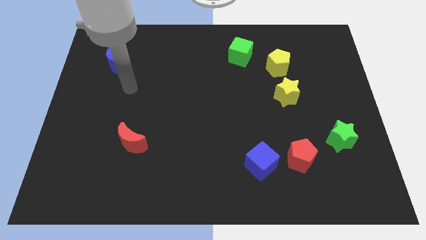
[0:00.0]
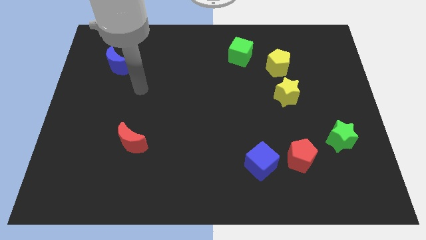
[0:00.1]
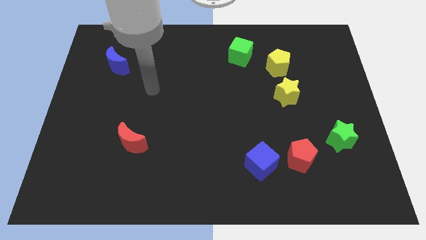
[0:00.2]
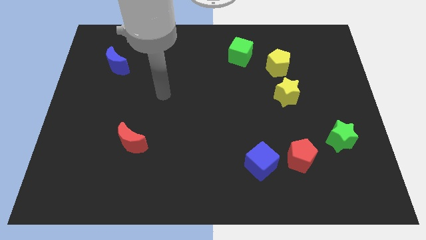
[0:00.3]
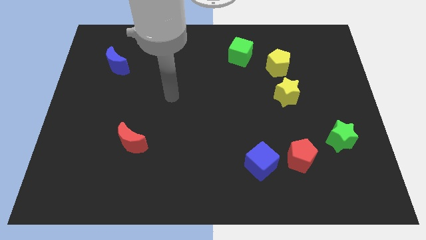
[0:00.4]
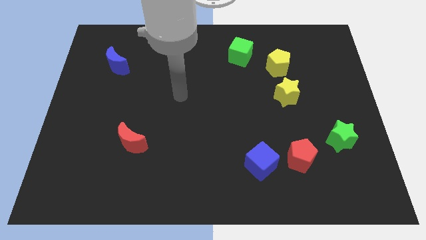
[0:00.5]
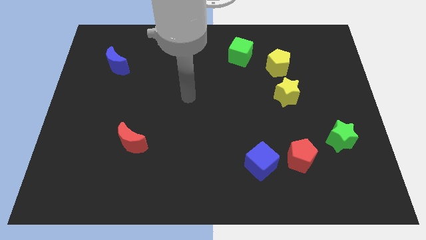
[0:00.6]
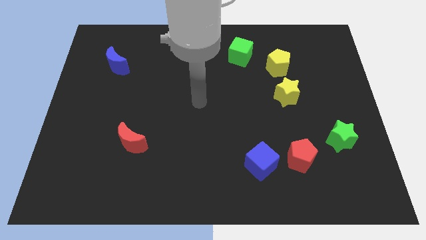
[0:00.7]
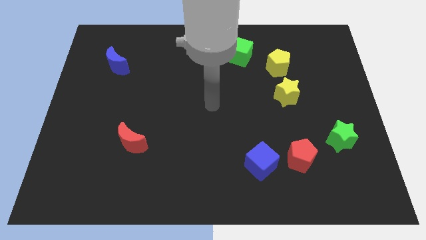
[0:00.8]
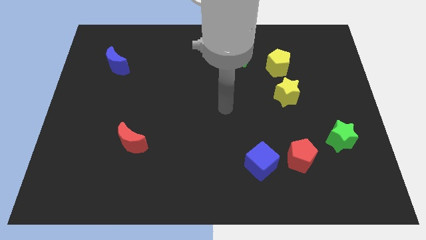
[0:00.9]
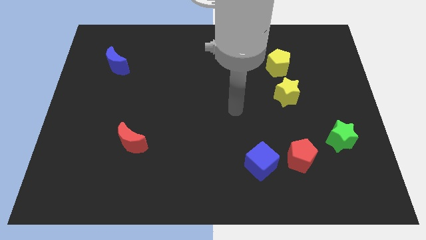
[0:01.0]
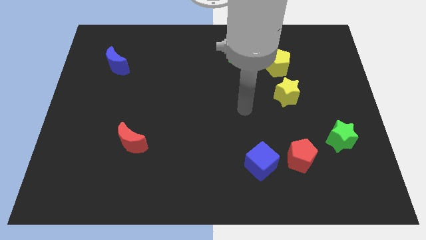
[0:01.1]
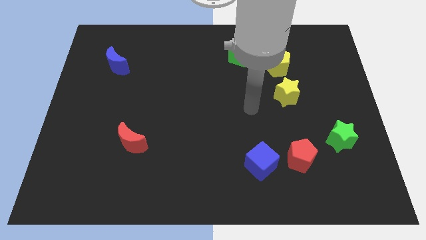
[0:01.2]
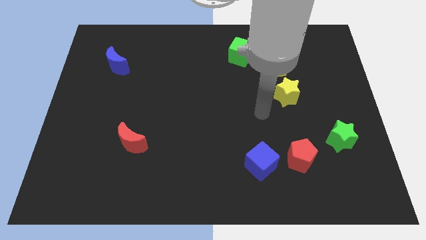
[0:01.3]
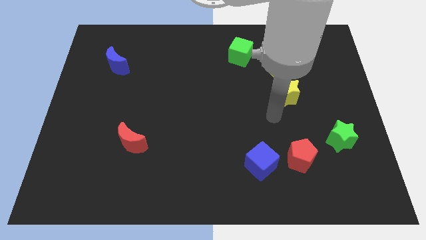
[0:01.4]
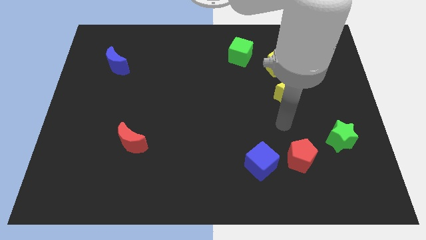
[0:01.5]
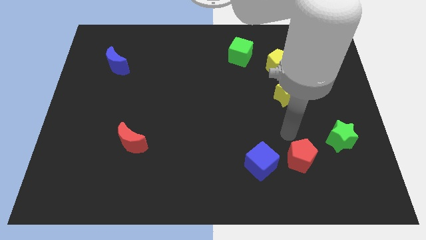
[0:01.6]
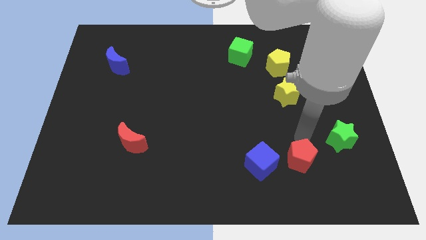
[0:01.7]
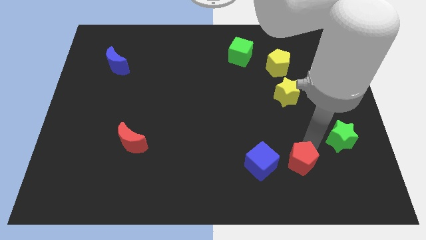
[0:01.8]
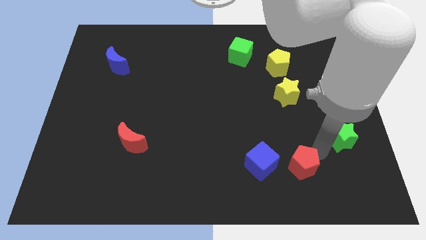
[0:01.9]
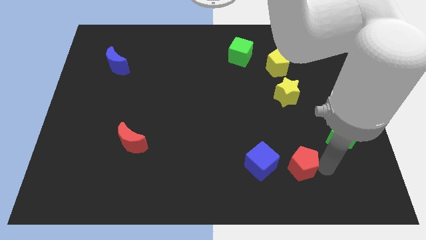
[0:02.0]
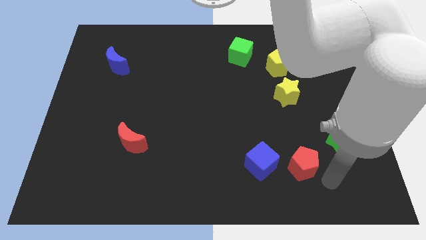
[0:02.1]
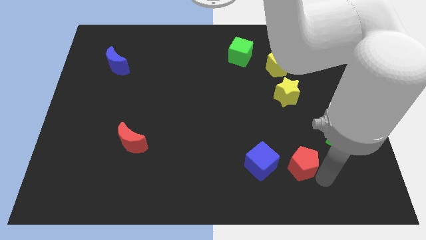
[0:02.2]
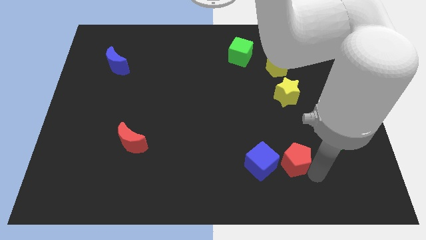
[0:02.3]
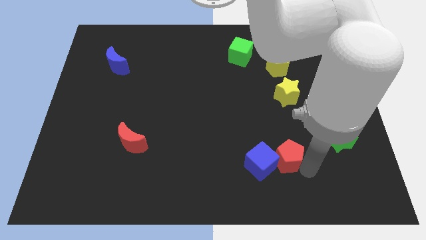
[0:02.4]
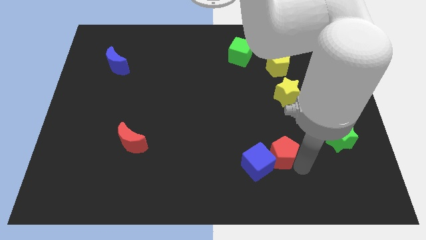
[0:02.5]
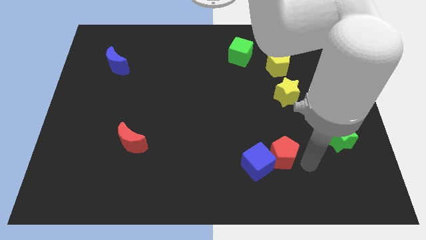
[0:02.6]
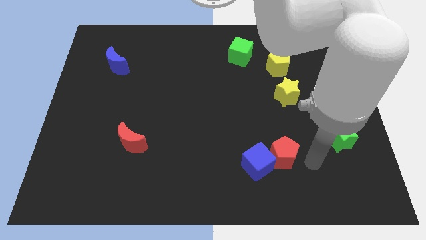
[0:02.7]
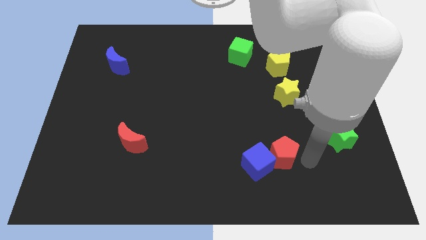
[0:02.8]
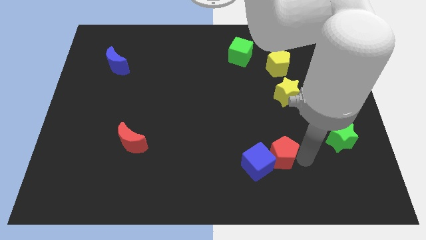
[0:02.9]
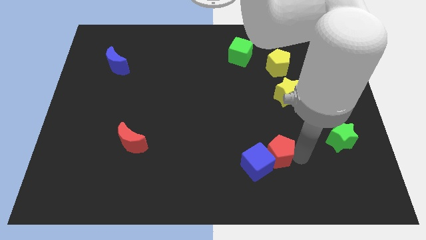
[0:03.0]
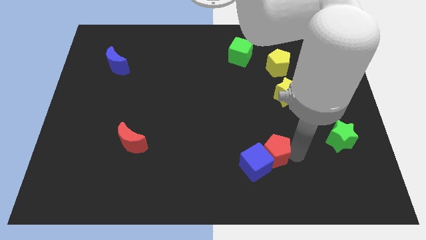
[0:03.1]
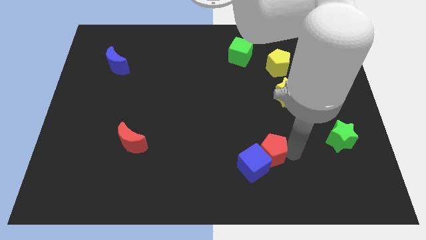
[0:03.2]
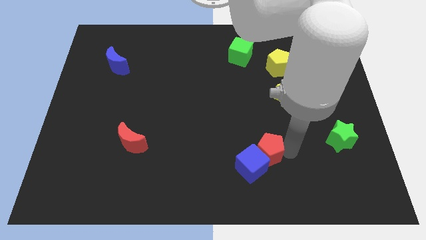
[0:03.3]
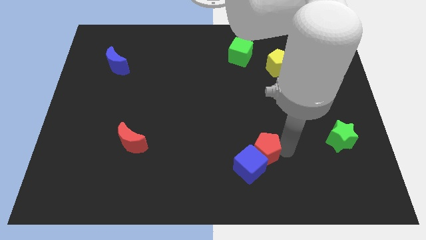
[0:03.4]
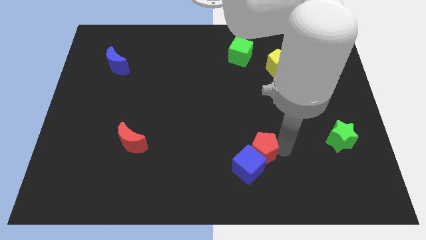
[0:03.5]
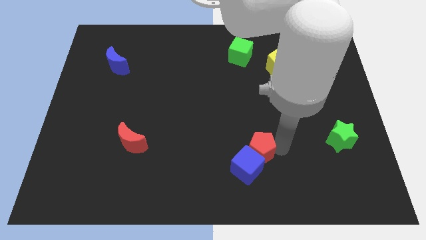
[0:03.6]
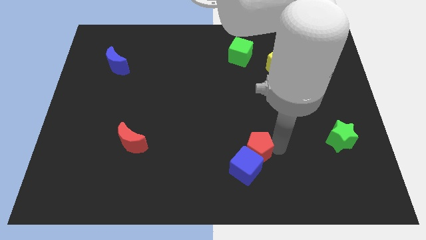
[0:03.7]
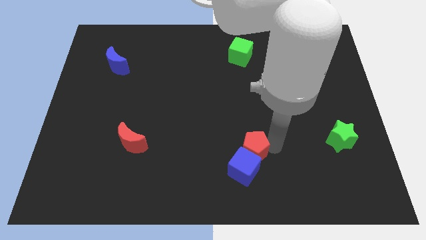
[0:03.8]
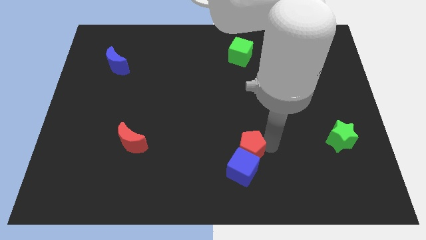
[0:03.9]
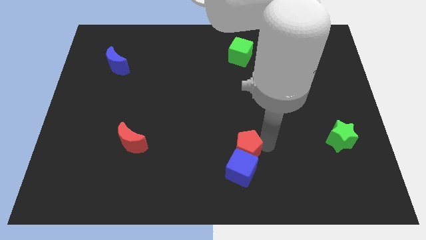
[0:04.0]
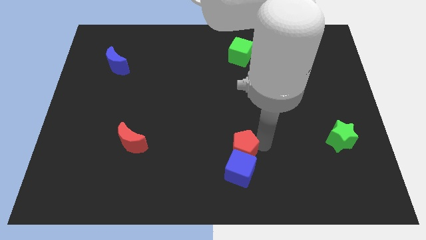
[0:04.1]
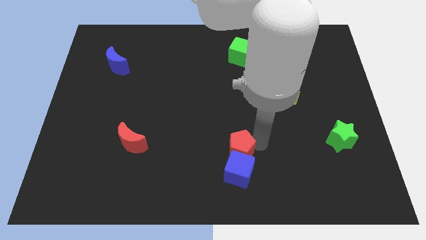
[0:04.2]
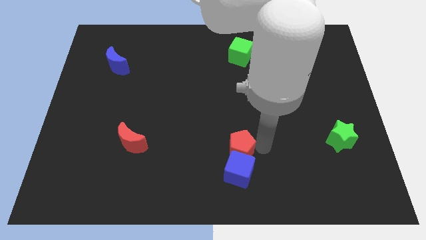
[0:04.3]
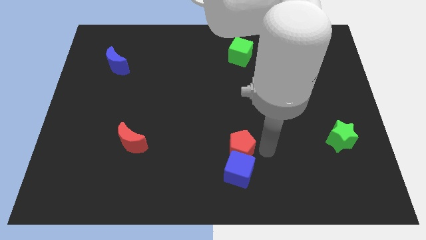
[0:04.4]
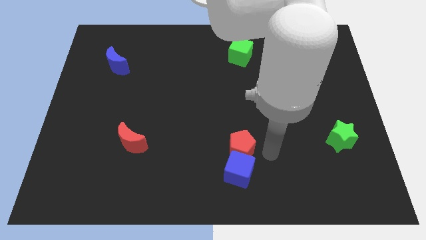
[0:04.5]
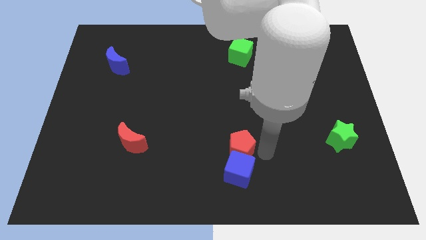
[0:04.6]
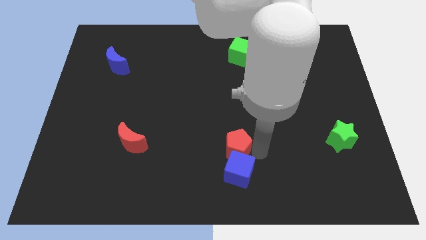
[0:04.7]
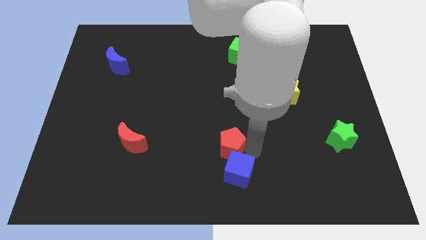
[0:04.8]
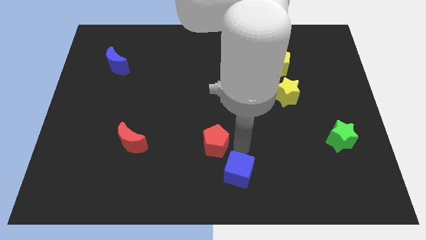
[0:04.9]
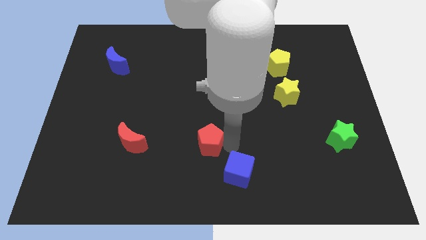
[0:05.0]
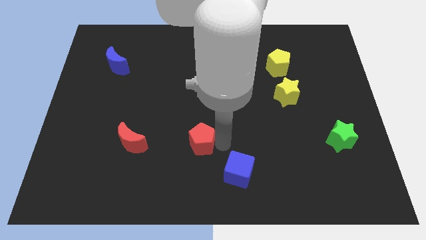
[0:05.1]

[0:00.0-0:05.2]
push the red pentagon to the left

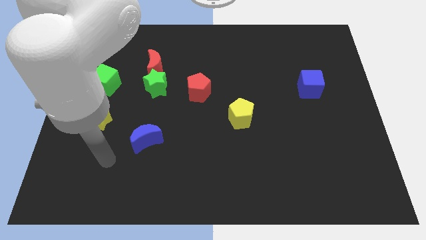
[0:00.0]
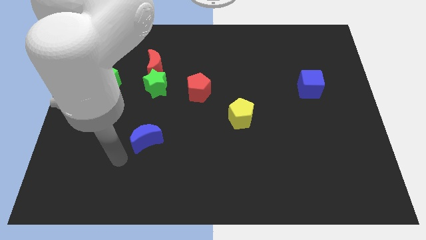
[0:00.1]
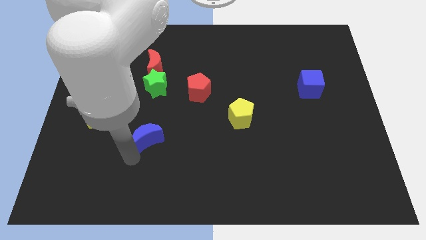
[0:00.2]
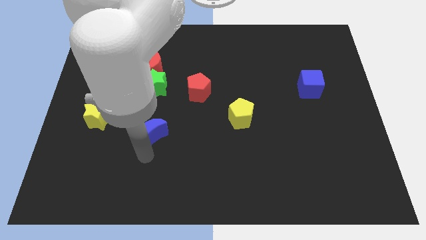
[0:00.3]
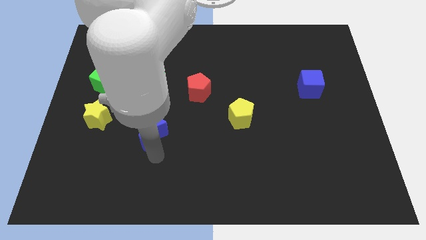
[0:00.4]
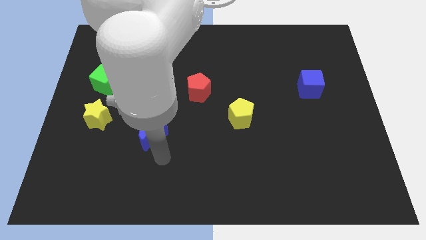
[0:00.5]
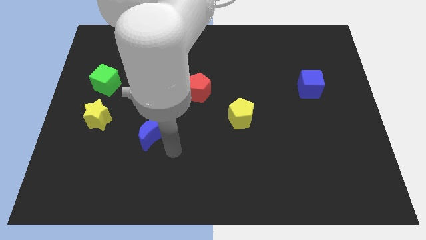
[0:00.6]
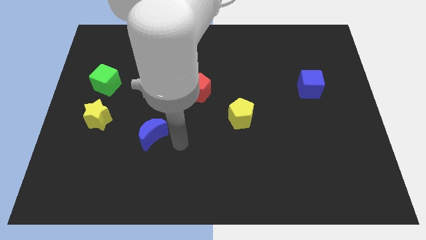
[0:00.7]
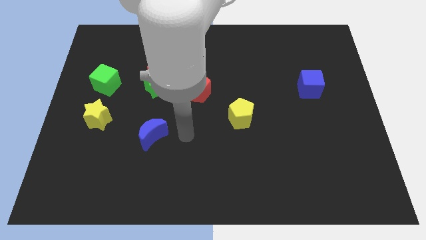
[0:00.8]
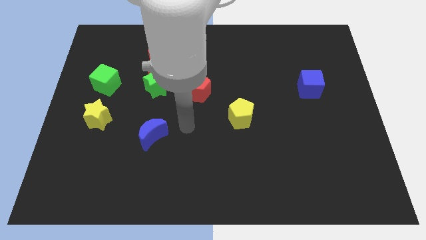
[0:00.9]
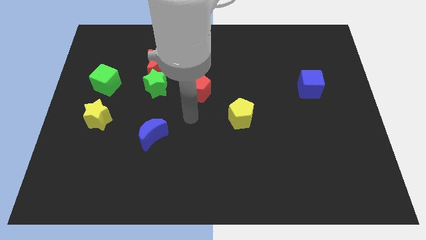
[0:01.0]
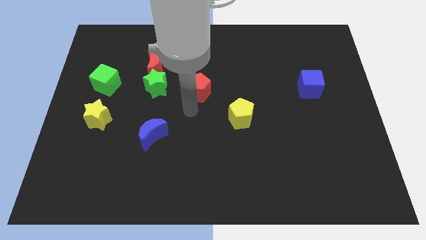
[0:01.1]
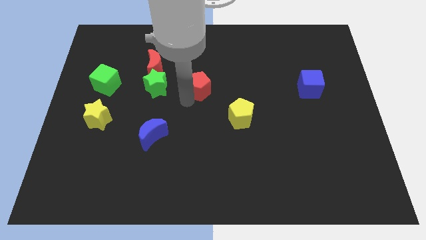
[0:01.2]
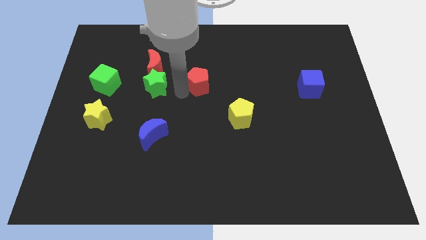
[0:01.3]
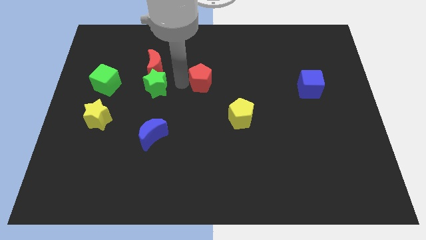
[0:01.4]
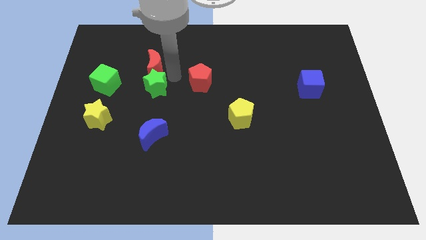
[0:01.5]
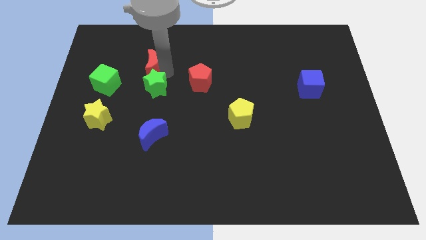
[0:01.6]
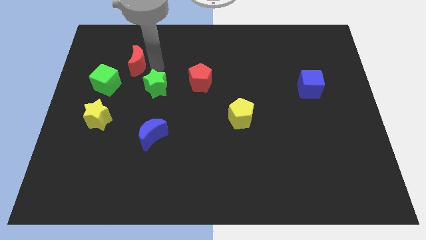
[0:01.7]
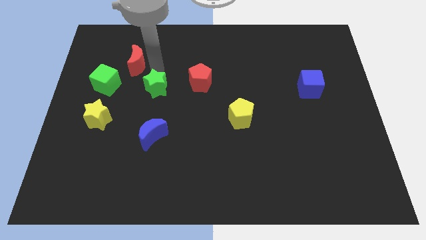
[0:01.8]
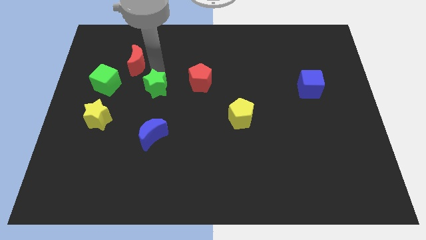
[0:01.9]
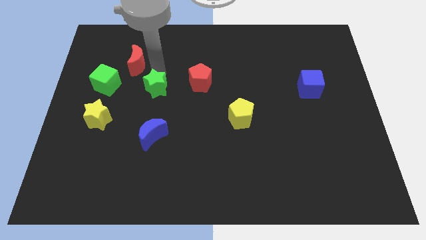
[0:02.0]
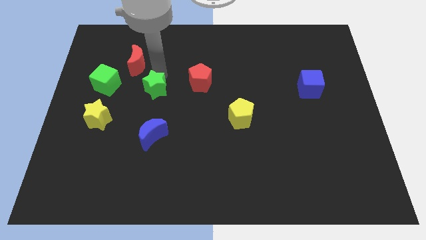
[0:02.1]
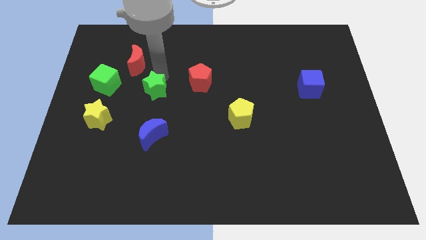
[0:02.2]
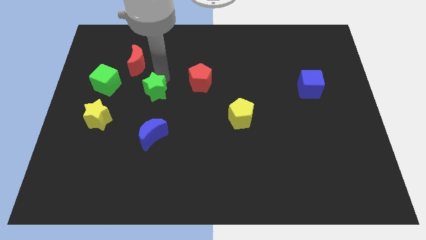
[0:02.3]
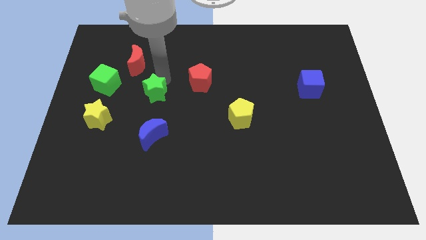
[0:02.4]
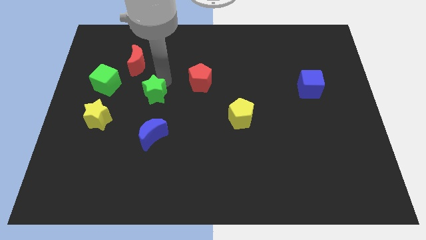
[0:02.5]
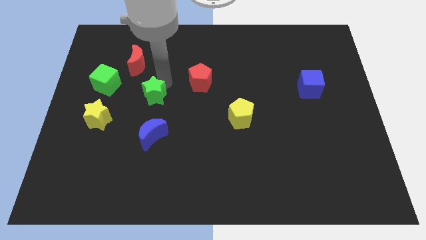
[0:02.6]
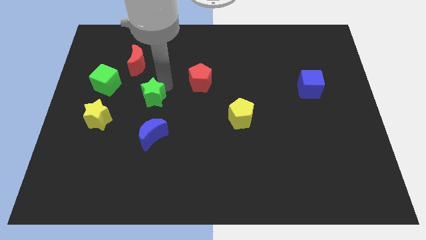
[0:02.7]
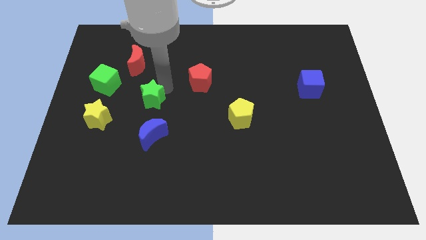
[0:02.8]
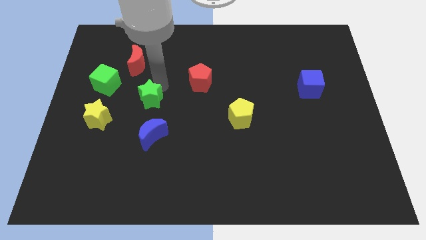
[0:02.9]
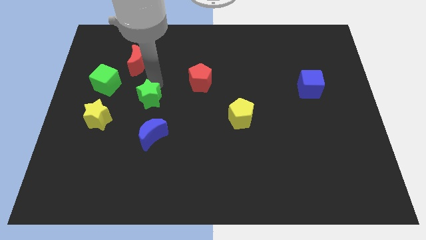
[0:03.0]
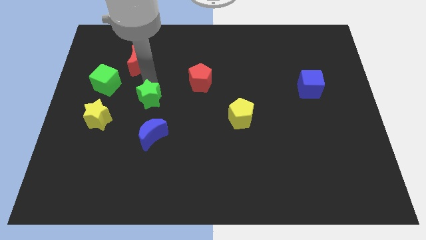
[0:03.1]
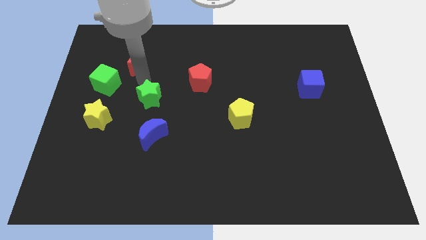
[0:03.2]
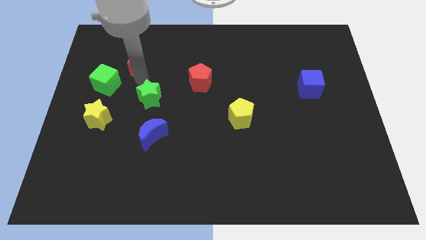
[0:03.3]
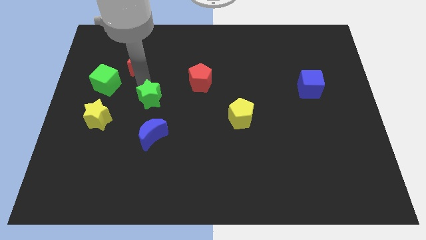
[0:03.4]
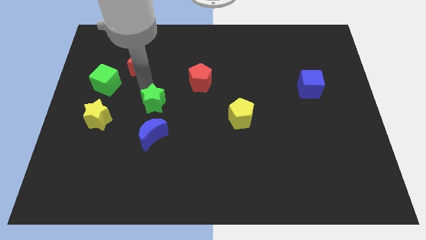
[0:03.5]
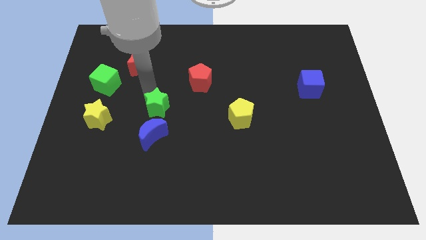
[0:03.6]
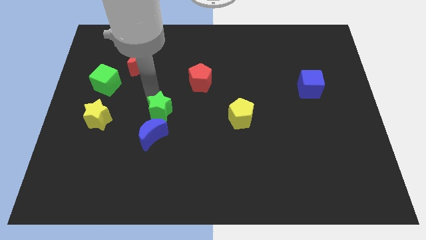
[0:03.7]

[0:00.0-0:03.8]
move the green star a little down
